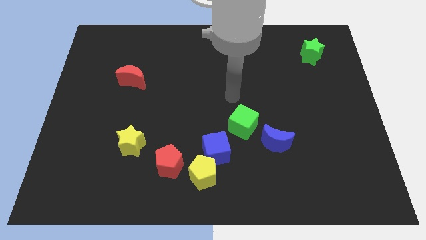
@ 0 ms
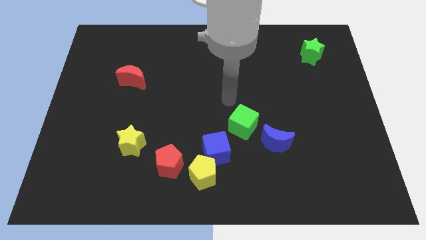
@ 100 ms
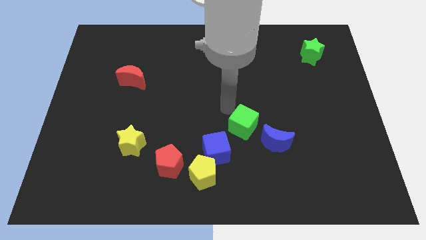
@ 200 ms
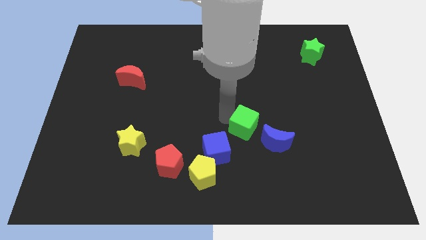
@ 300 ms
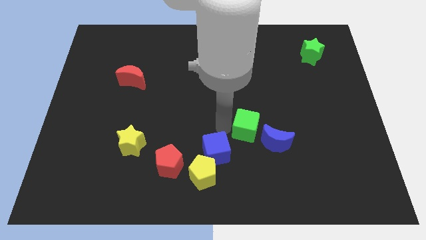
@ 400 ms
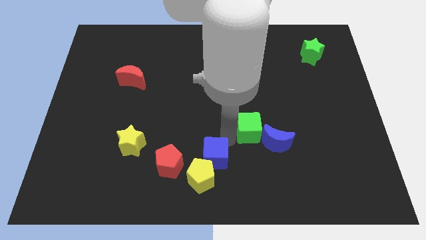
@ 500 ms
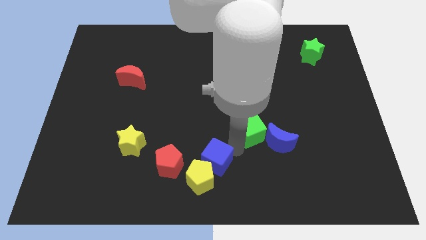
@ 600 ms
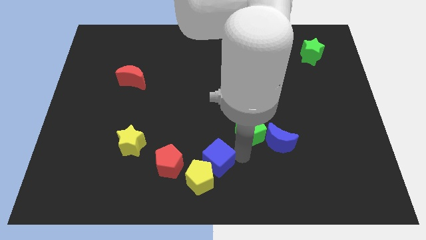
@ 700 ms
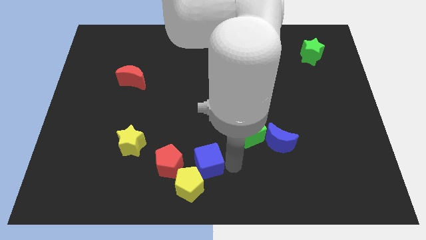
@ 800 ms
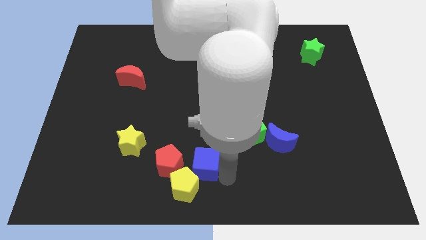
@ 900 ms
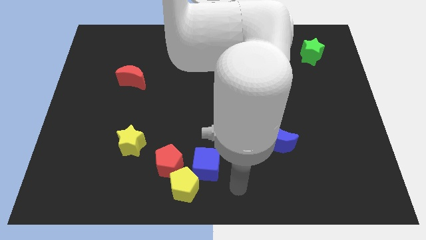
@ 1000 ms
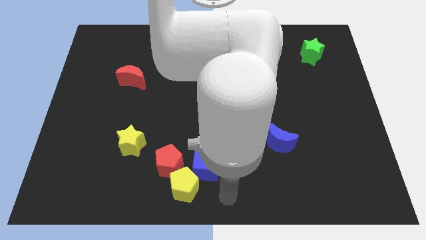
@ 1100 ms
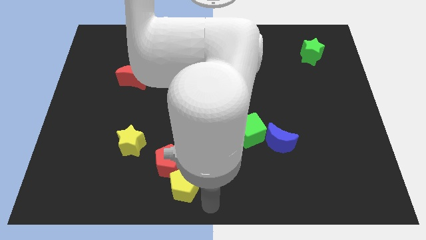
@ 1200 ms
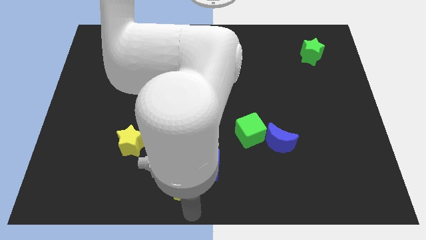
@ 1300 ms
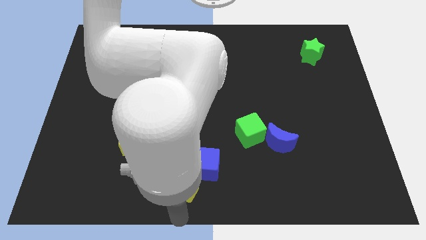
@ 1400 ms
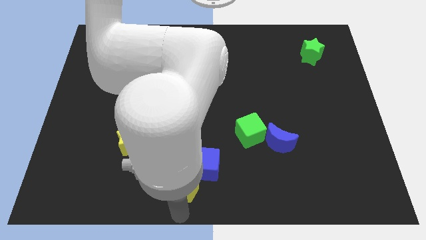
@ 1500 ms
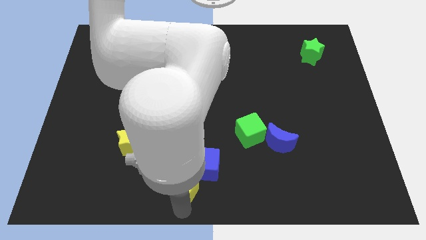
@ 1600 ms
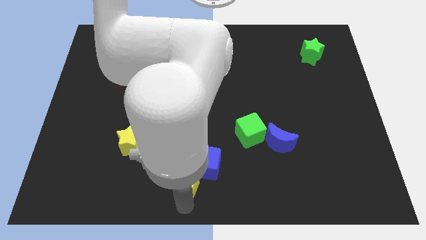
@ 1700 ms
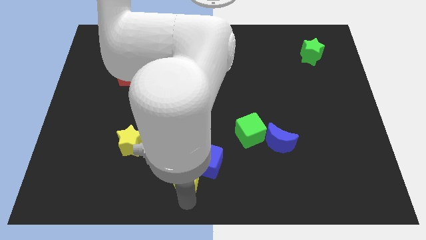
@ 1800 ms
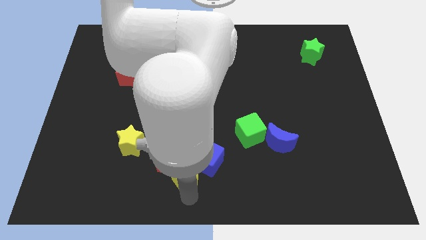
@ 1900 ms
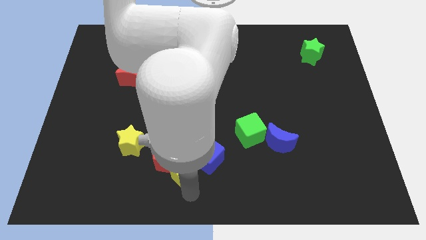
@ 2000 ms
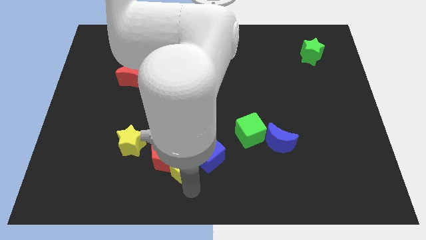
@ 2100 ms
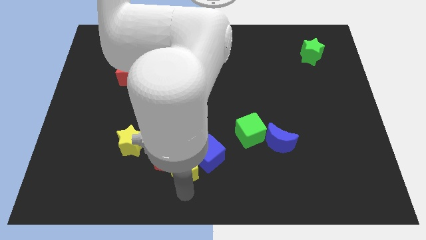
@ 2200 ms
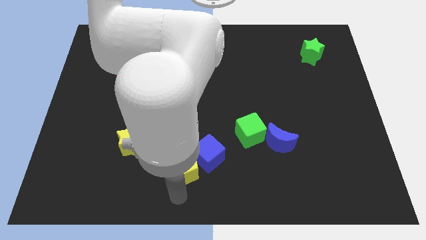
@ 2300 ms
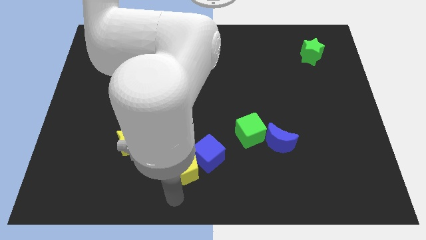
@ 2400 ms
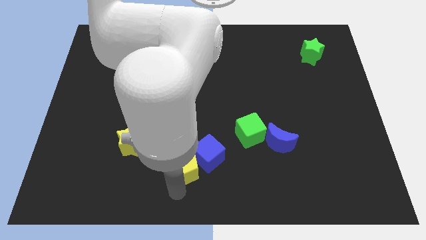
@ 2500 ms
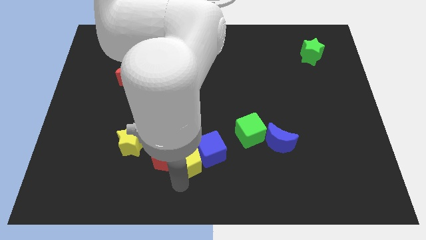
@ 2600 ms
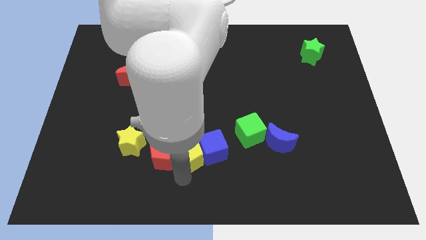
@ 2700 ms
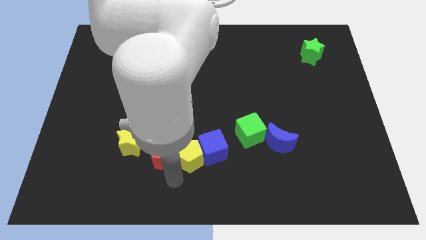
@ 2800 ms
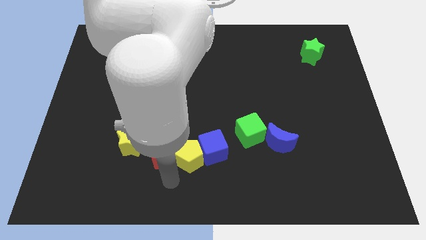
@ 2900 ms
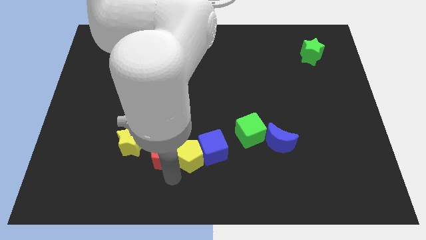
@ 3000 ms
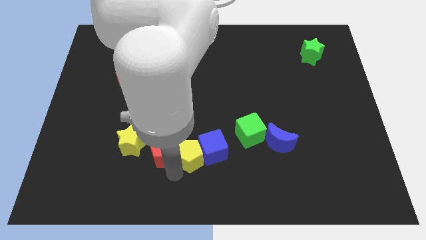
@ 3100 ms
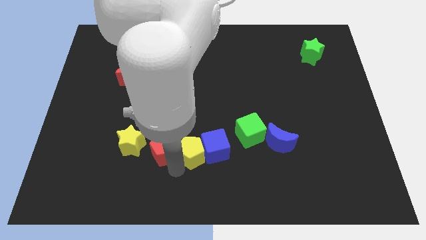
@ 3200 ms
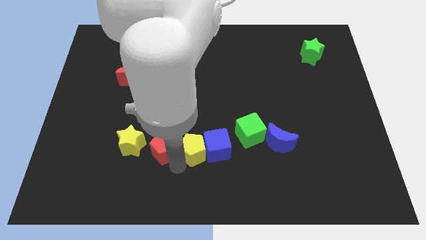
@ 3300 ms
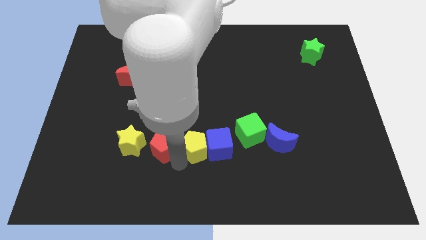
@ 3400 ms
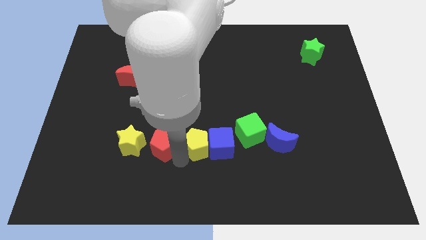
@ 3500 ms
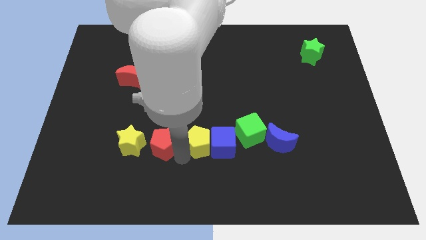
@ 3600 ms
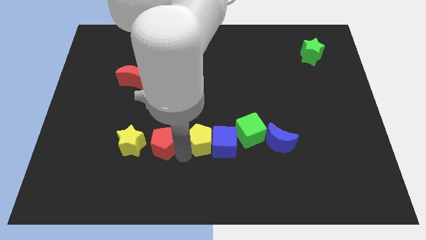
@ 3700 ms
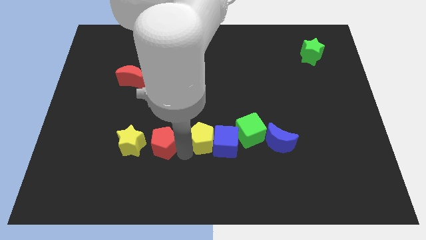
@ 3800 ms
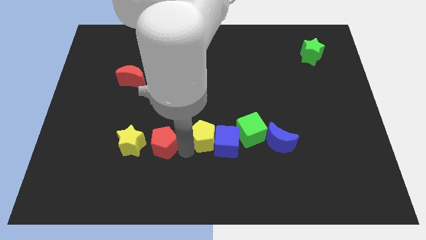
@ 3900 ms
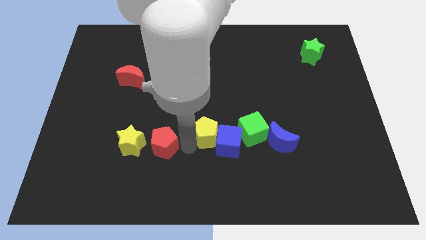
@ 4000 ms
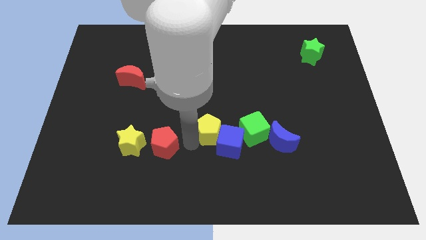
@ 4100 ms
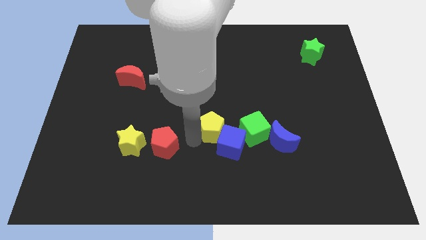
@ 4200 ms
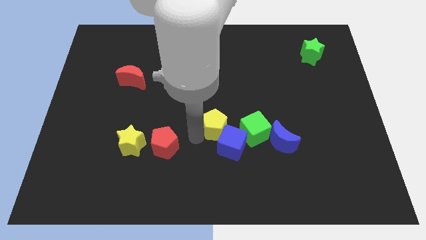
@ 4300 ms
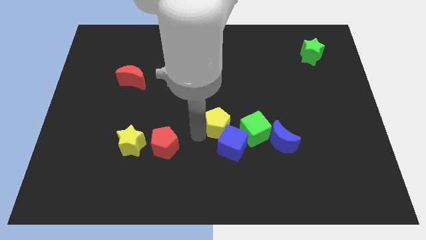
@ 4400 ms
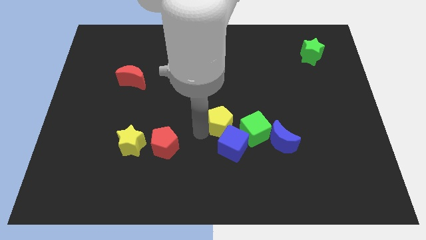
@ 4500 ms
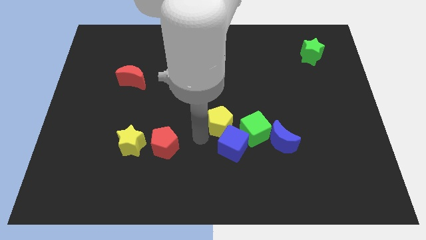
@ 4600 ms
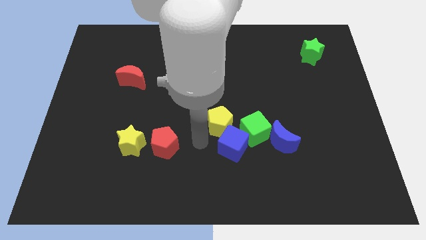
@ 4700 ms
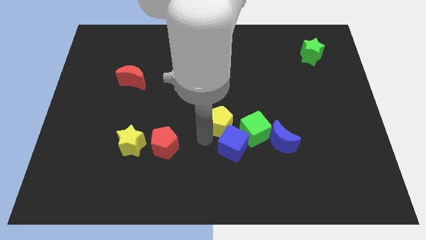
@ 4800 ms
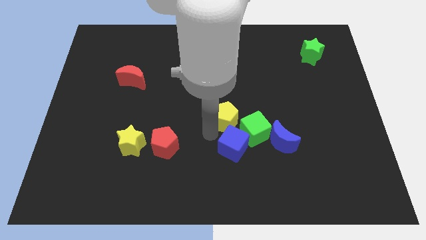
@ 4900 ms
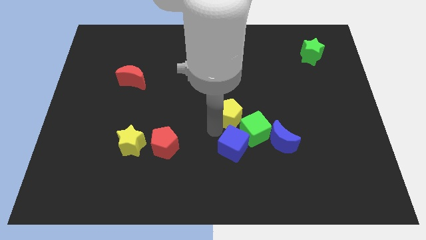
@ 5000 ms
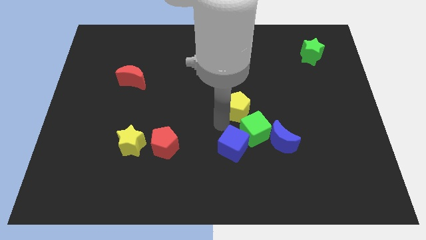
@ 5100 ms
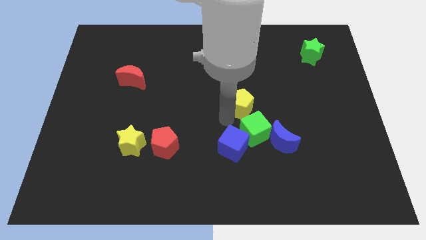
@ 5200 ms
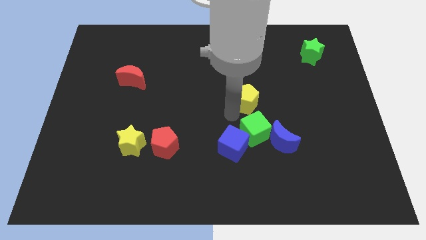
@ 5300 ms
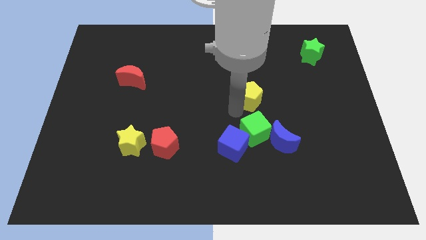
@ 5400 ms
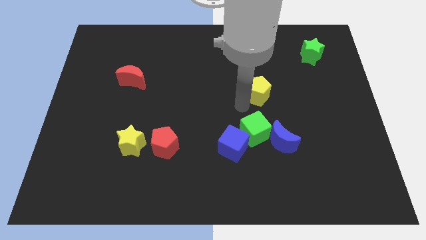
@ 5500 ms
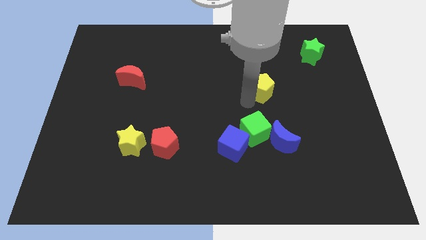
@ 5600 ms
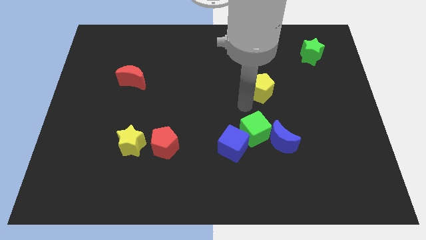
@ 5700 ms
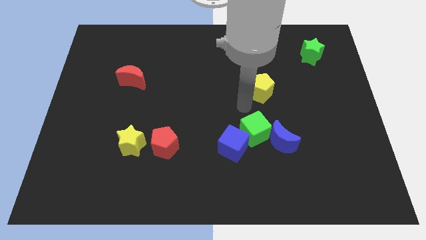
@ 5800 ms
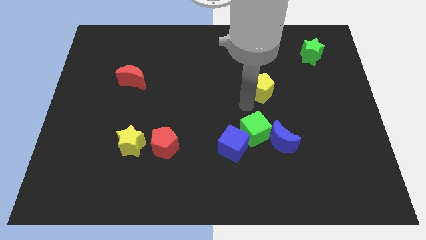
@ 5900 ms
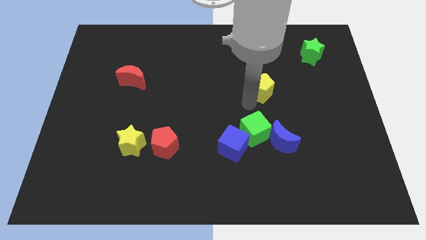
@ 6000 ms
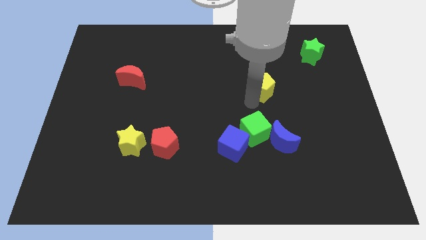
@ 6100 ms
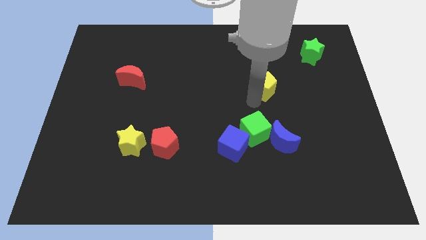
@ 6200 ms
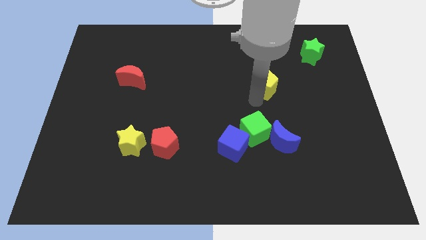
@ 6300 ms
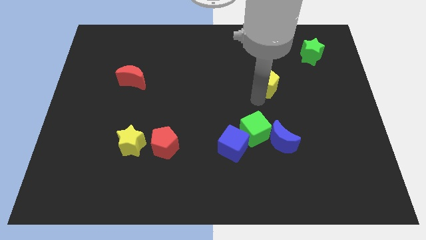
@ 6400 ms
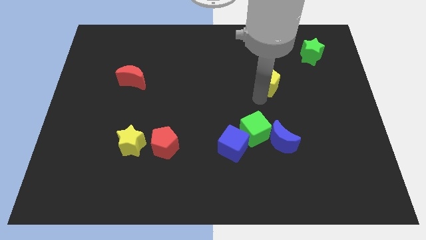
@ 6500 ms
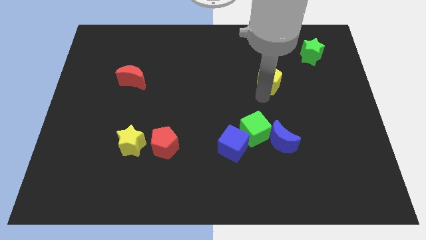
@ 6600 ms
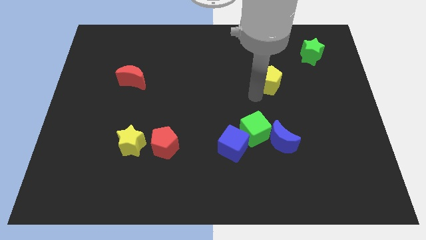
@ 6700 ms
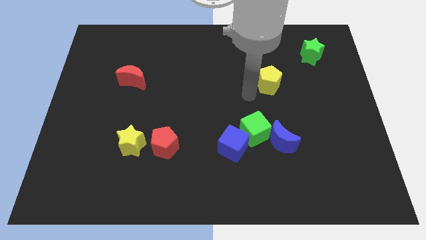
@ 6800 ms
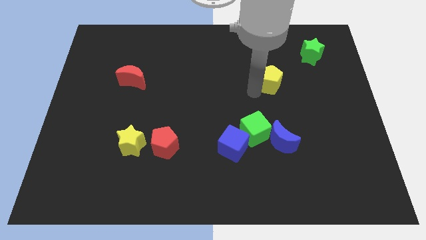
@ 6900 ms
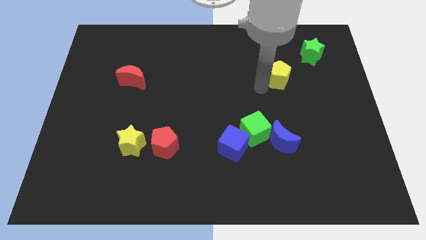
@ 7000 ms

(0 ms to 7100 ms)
move the yellow pentagon to the bottom left side of the green star

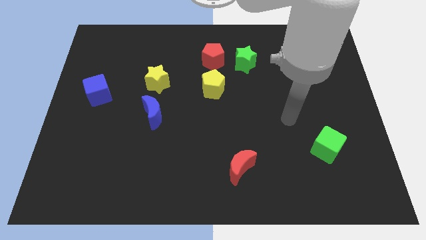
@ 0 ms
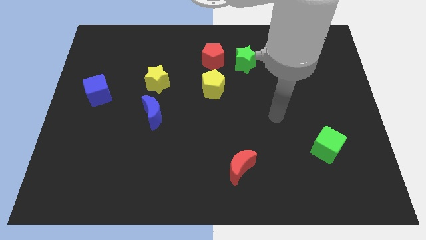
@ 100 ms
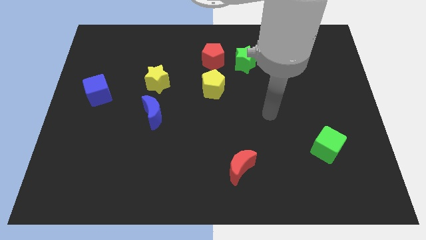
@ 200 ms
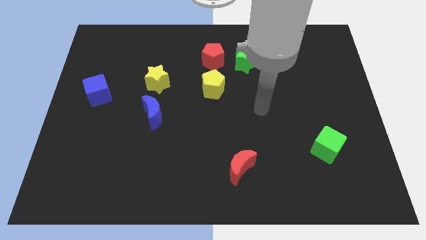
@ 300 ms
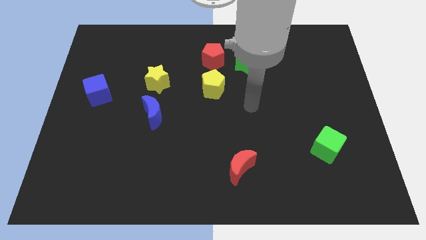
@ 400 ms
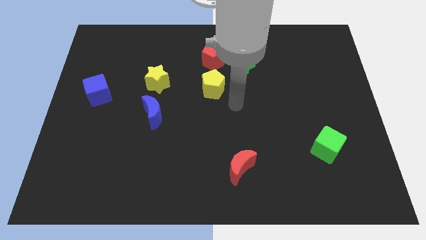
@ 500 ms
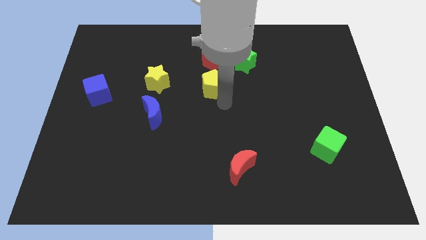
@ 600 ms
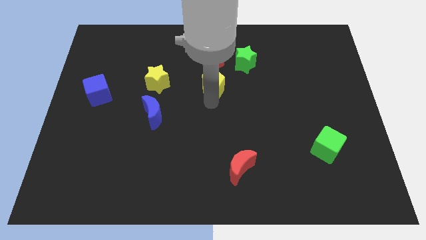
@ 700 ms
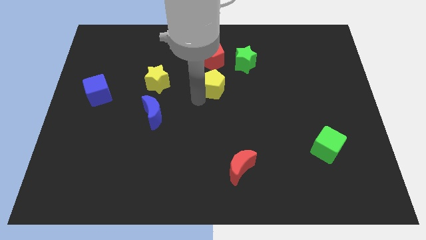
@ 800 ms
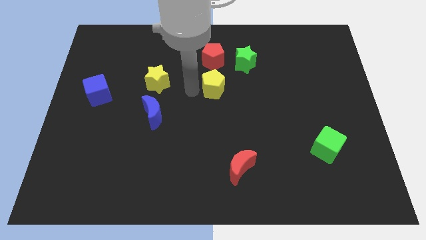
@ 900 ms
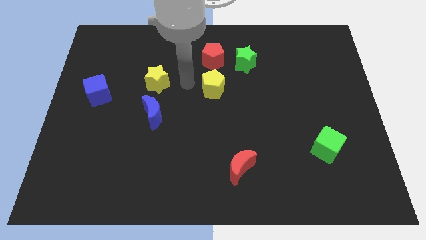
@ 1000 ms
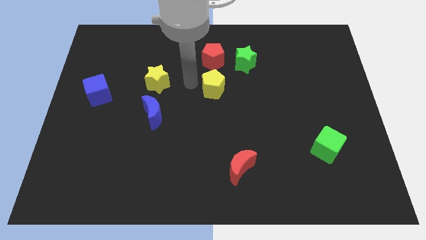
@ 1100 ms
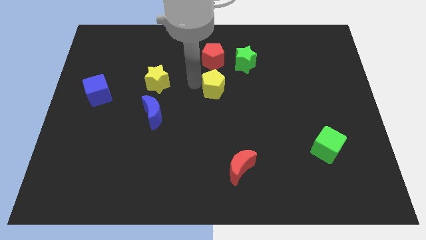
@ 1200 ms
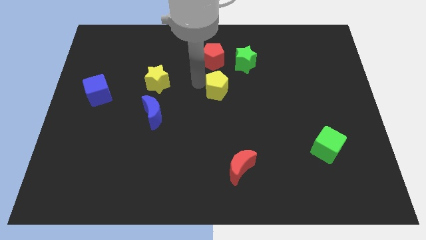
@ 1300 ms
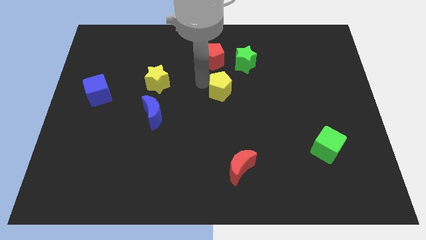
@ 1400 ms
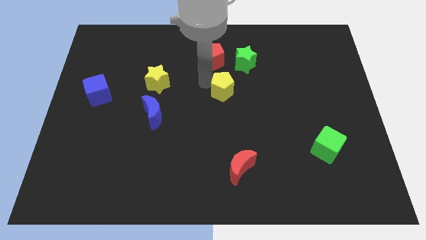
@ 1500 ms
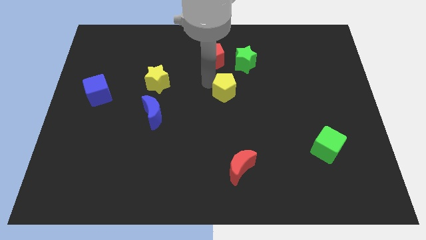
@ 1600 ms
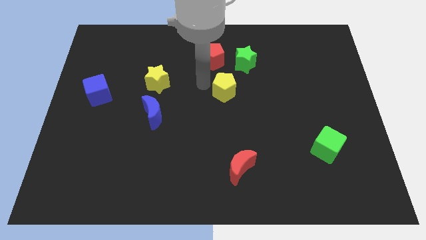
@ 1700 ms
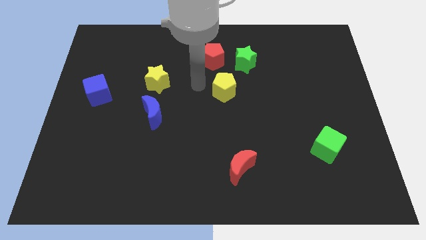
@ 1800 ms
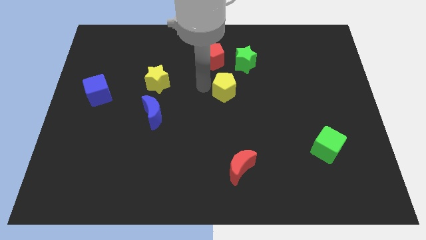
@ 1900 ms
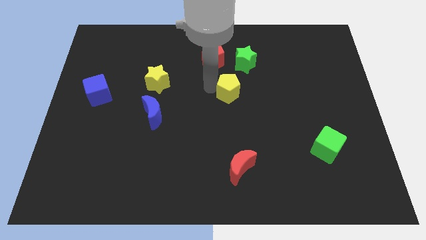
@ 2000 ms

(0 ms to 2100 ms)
push the yellow pentagon to the bottom side of the green star
